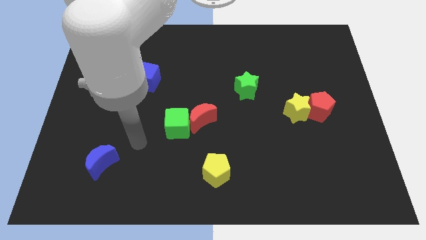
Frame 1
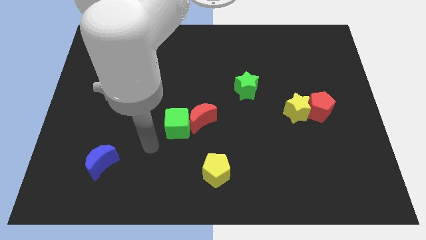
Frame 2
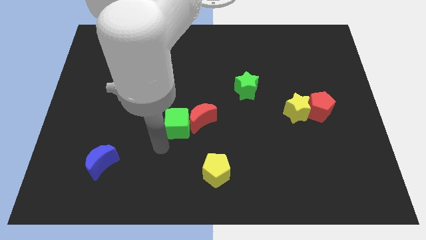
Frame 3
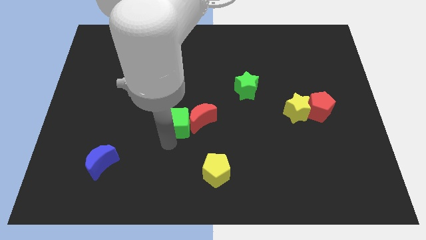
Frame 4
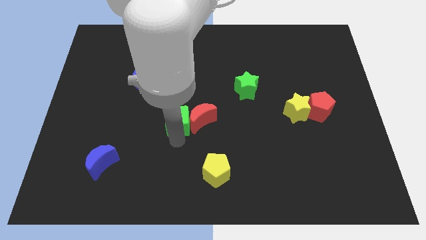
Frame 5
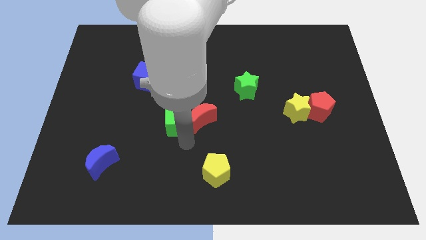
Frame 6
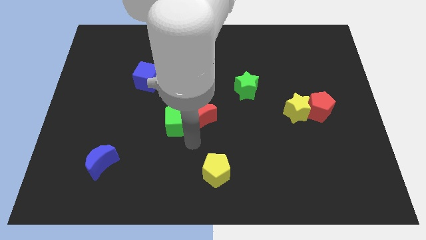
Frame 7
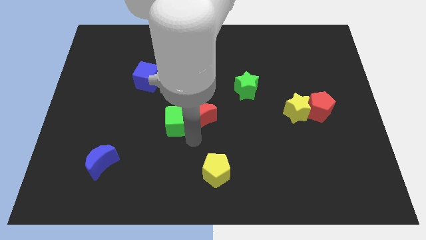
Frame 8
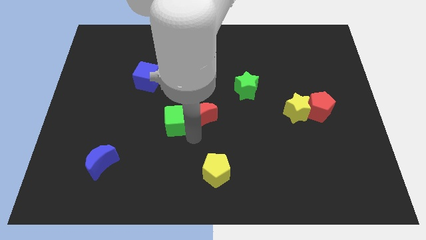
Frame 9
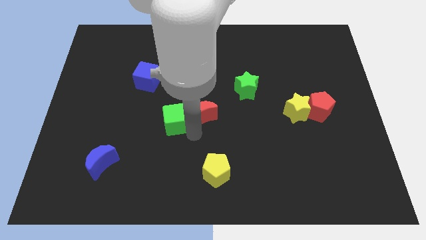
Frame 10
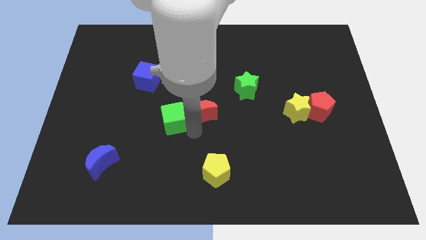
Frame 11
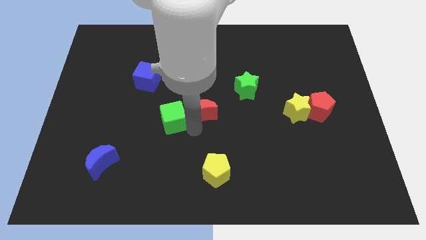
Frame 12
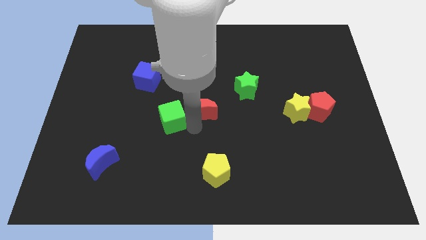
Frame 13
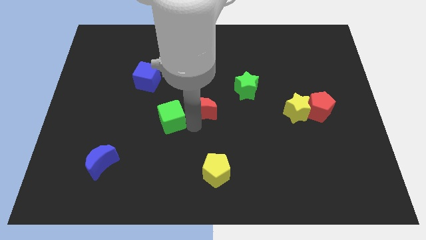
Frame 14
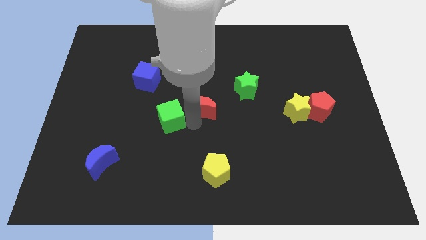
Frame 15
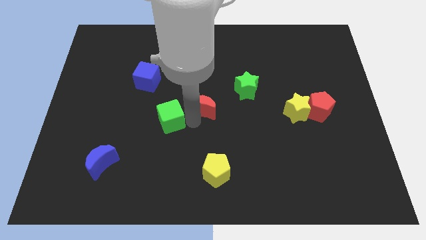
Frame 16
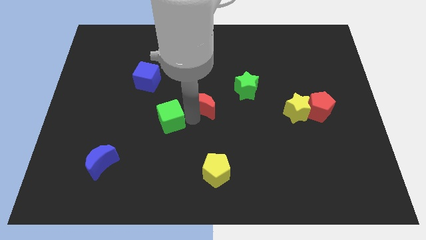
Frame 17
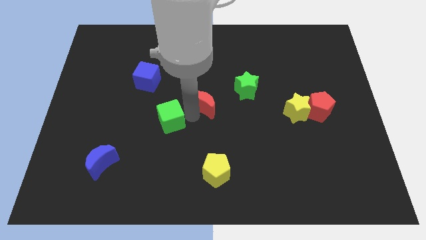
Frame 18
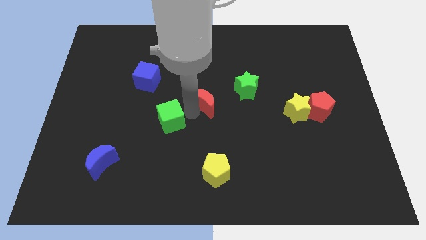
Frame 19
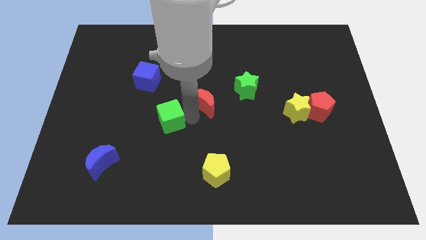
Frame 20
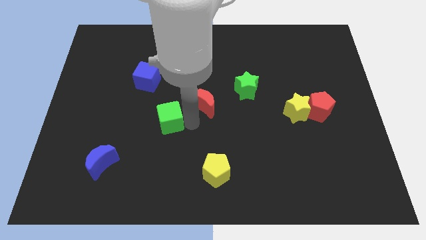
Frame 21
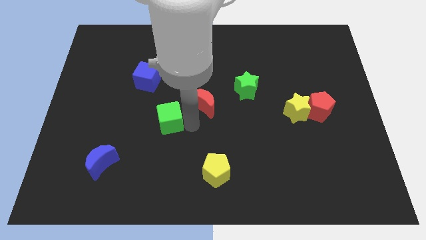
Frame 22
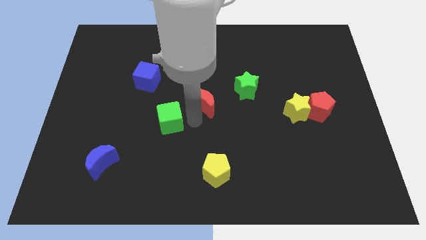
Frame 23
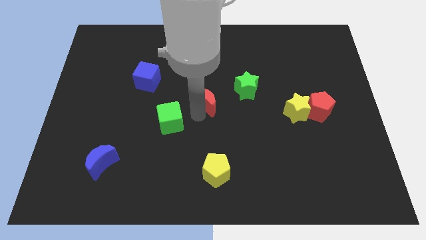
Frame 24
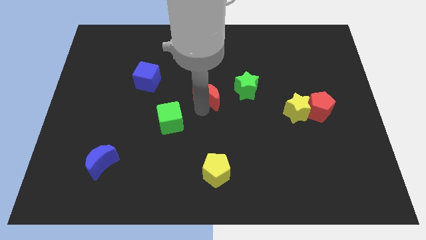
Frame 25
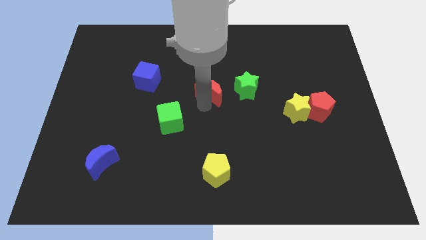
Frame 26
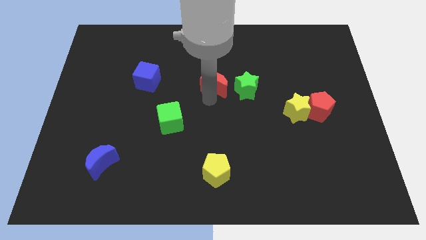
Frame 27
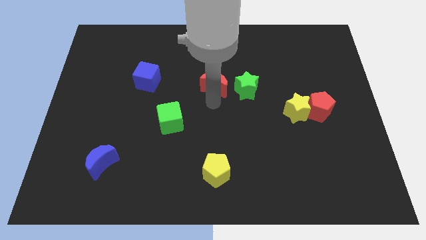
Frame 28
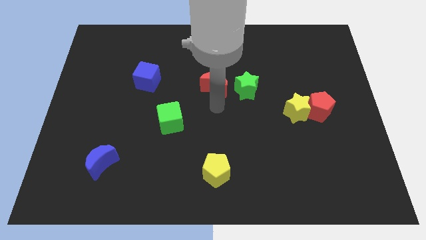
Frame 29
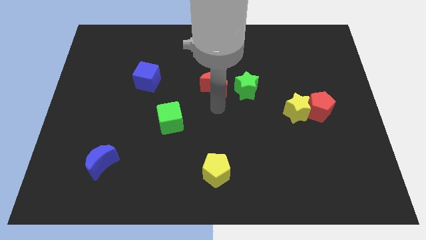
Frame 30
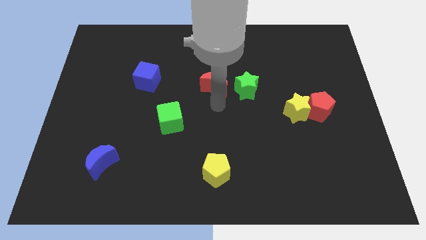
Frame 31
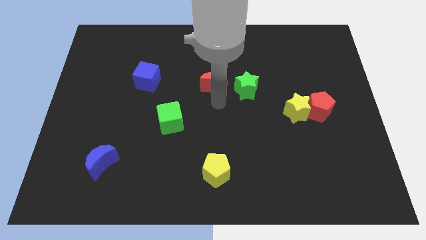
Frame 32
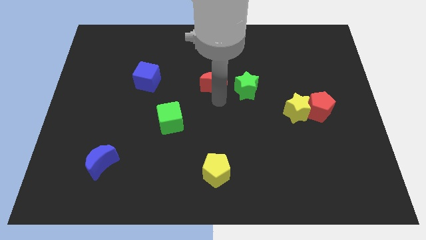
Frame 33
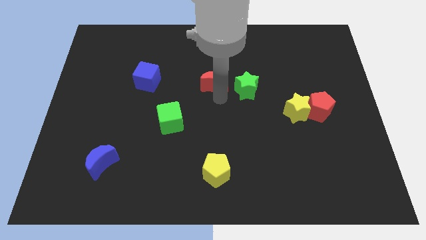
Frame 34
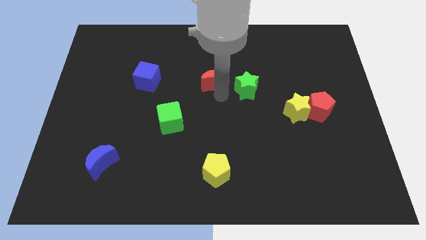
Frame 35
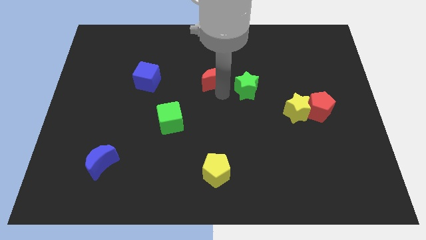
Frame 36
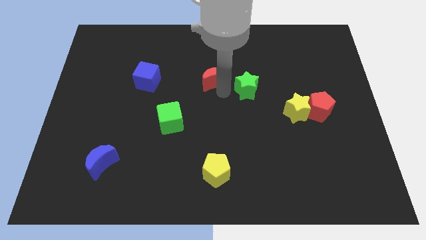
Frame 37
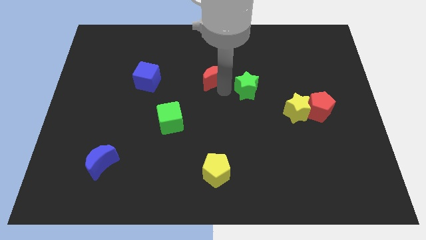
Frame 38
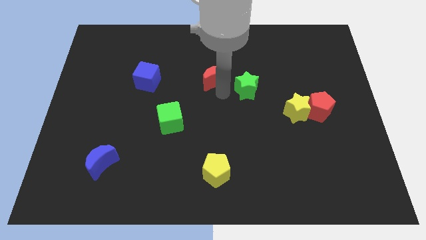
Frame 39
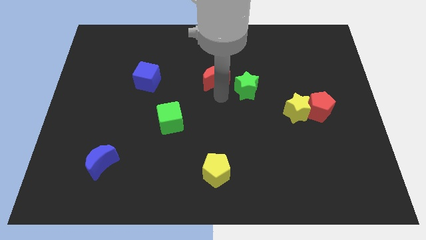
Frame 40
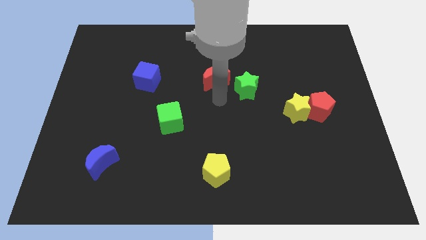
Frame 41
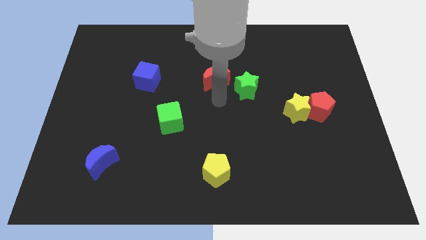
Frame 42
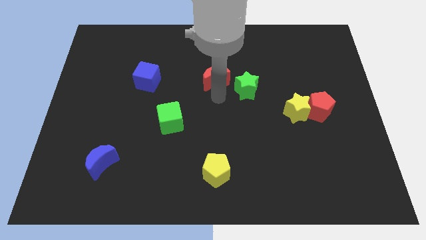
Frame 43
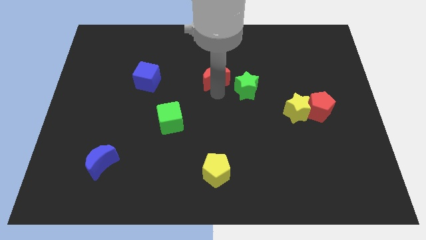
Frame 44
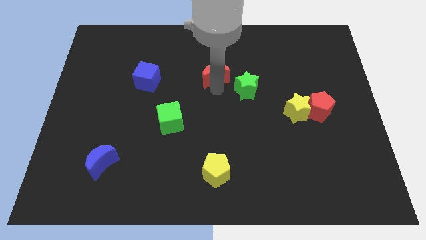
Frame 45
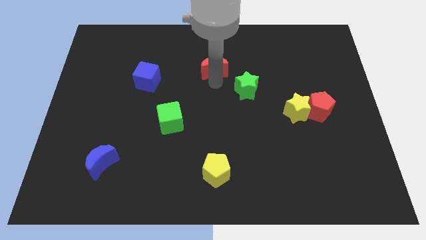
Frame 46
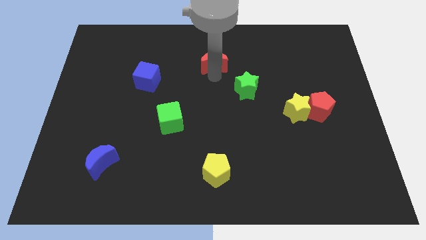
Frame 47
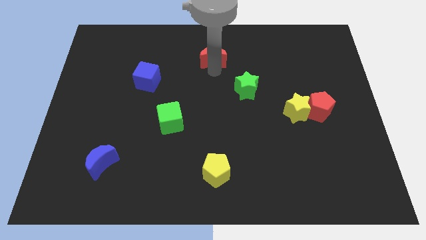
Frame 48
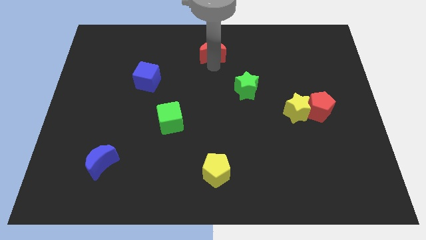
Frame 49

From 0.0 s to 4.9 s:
move the red moon to the towards your base

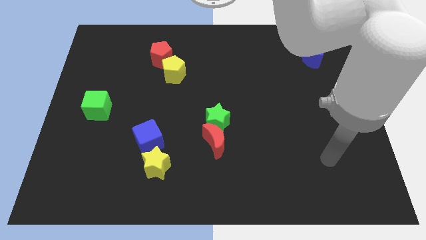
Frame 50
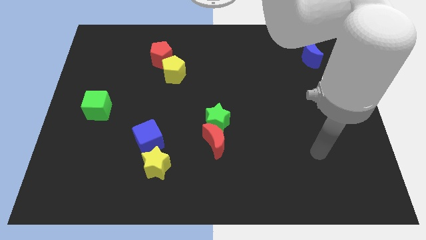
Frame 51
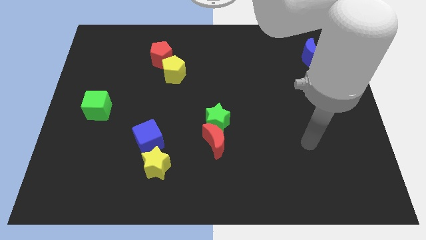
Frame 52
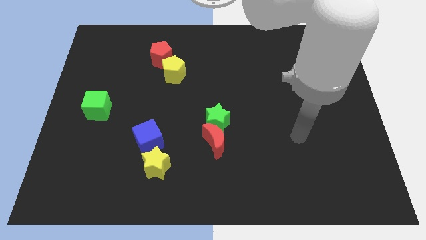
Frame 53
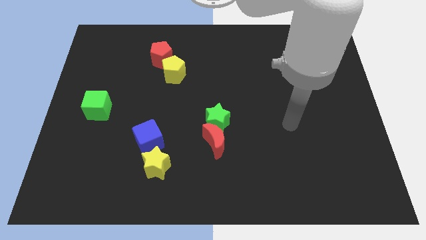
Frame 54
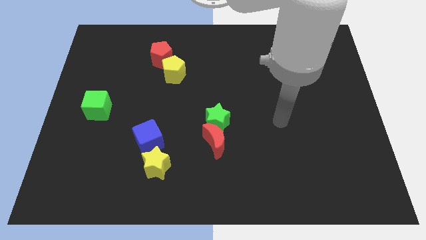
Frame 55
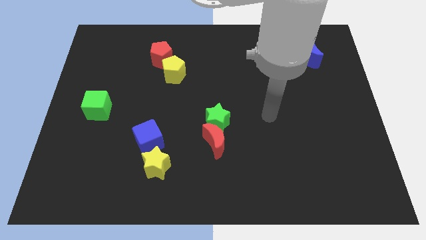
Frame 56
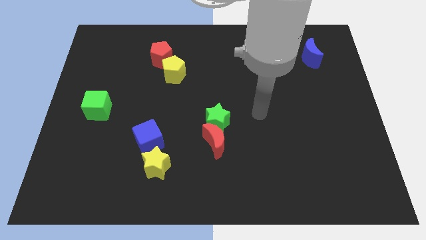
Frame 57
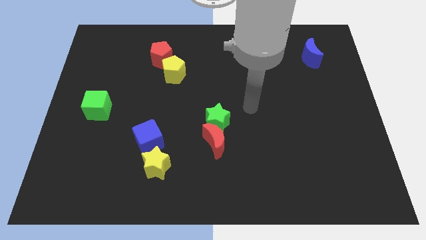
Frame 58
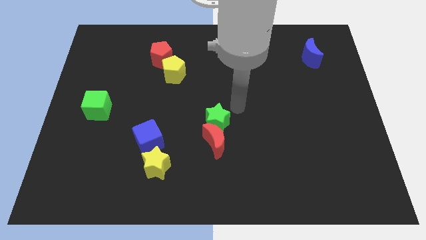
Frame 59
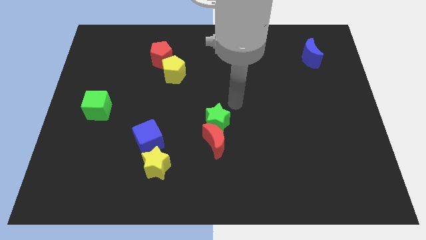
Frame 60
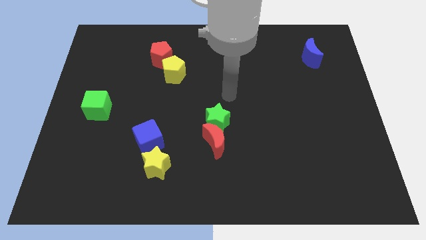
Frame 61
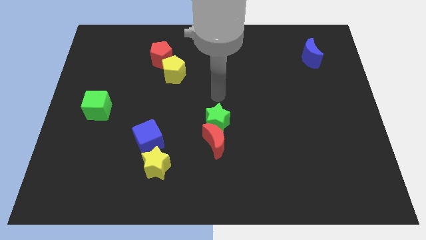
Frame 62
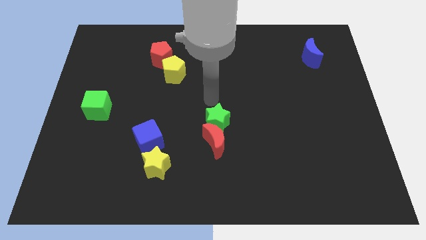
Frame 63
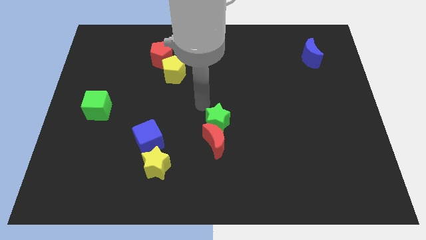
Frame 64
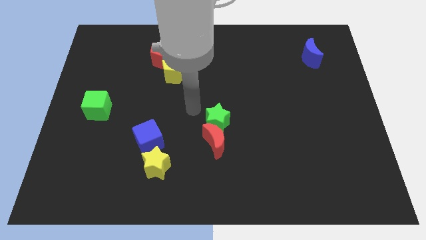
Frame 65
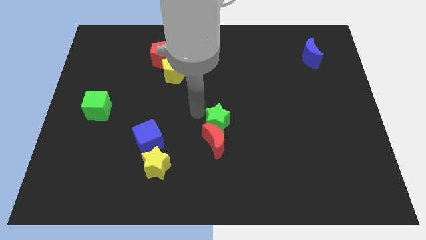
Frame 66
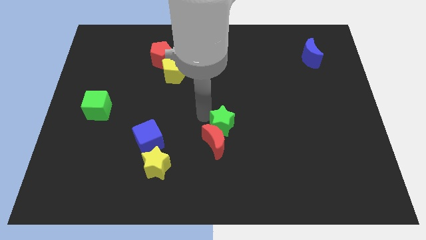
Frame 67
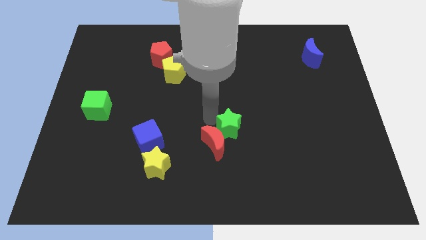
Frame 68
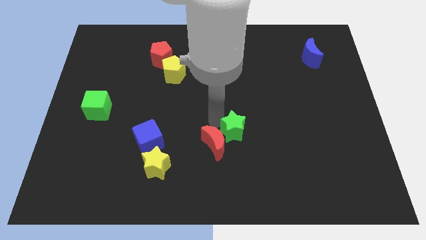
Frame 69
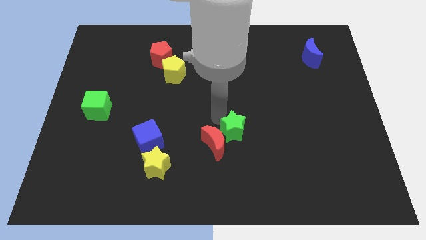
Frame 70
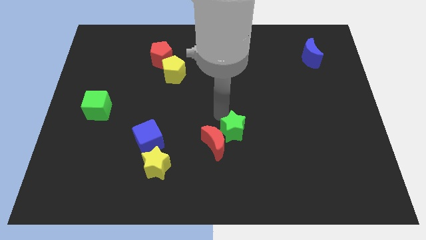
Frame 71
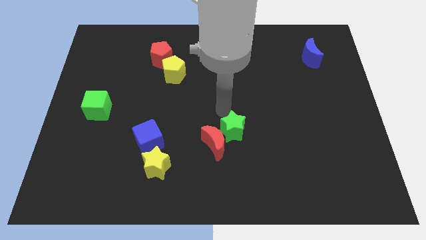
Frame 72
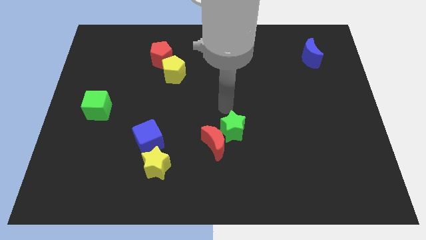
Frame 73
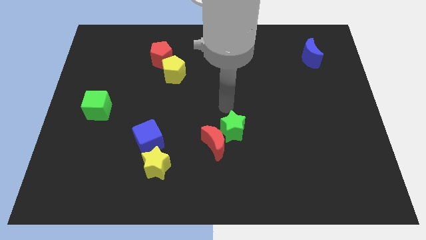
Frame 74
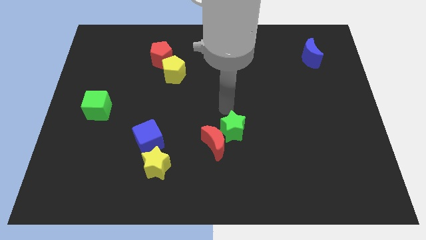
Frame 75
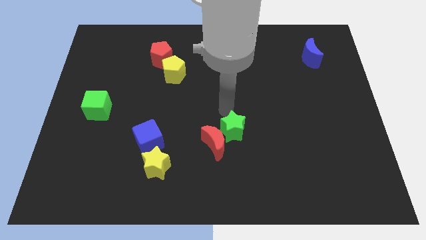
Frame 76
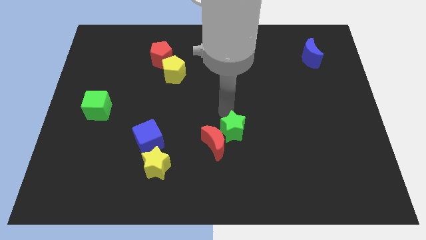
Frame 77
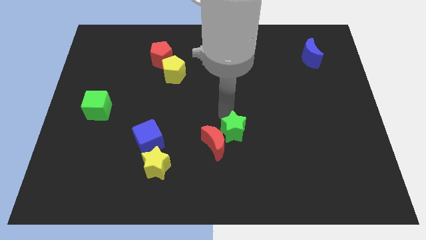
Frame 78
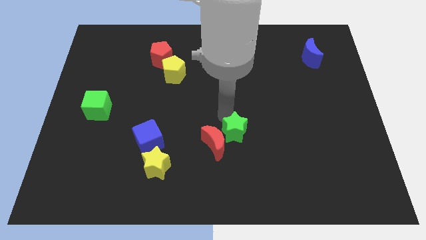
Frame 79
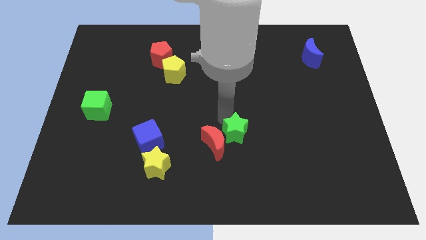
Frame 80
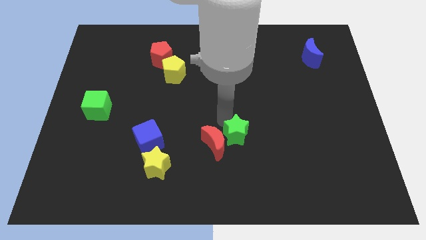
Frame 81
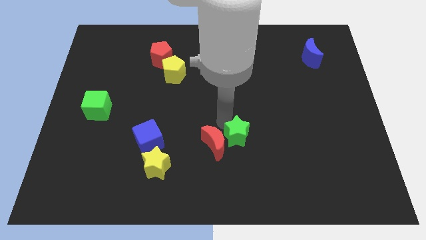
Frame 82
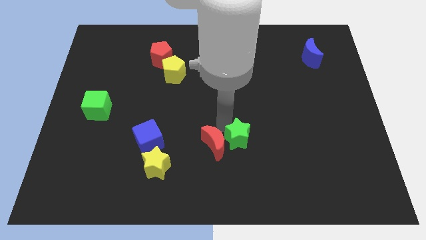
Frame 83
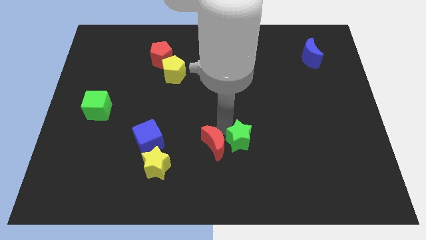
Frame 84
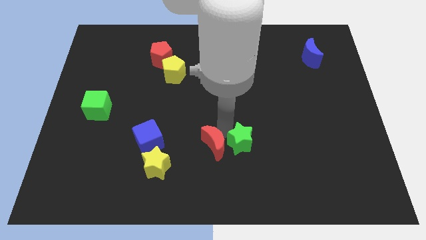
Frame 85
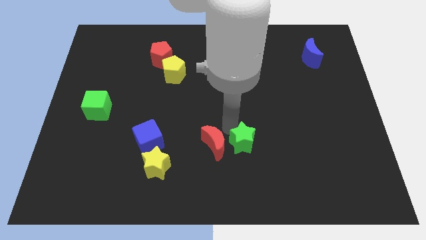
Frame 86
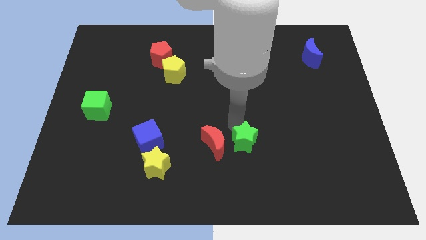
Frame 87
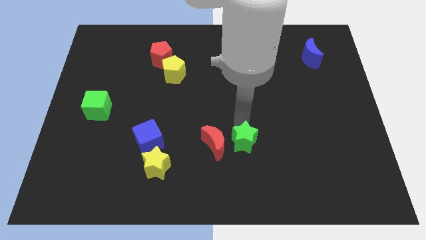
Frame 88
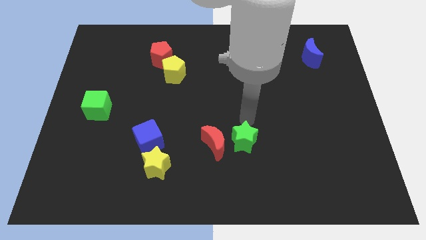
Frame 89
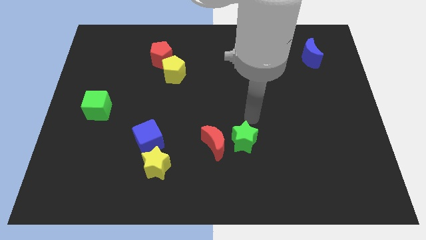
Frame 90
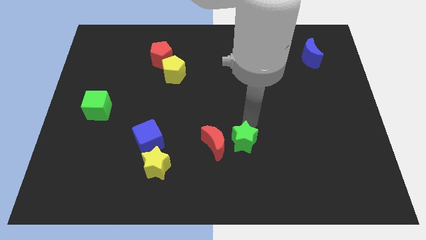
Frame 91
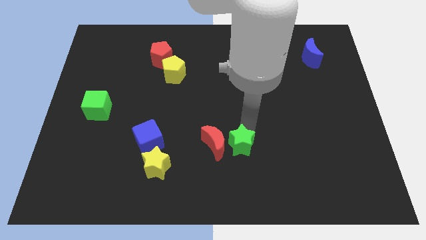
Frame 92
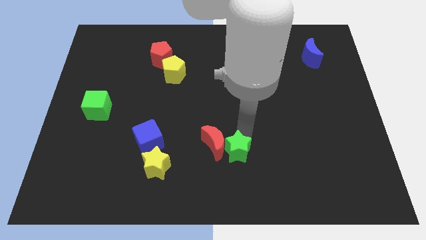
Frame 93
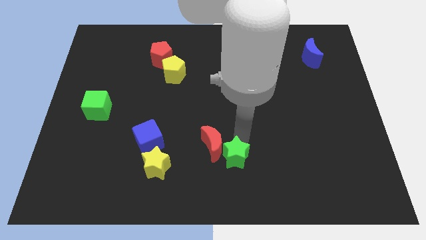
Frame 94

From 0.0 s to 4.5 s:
move the green star to the bottom side
